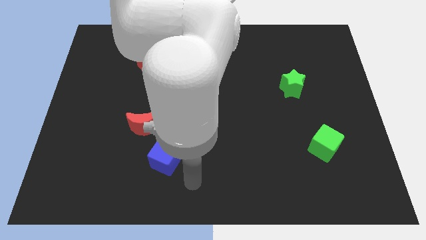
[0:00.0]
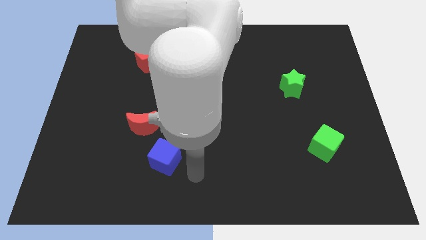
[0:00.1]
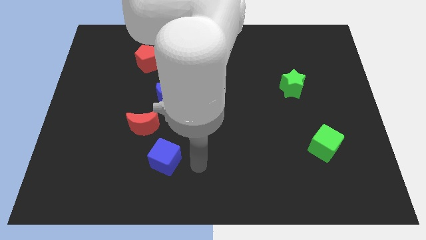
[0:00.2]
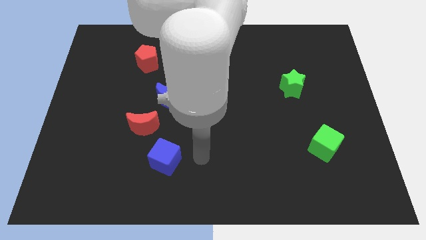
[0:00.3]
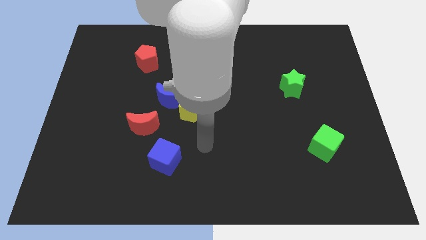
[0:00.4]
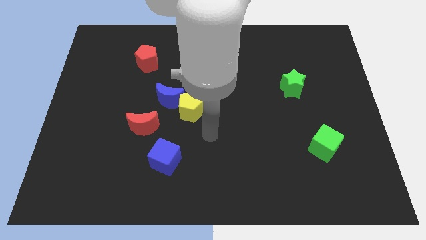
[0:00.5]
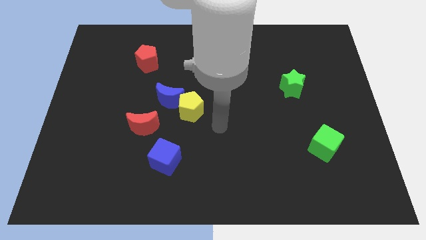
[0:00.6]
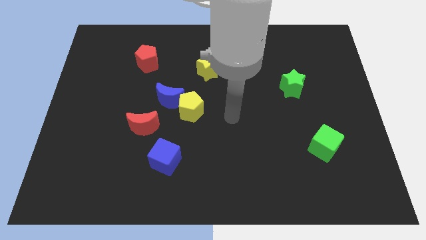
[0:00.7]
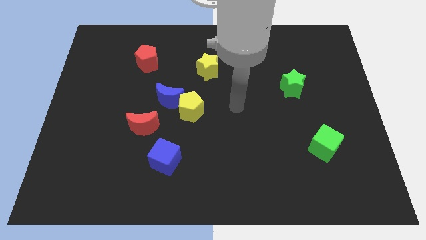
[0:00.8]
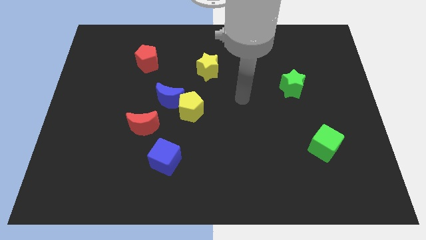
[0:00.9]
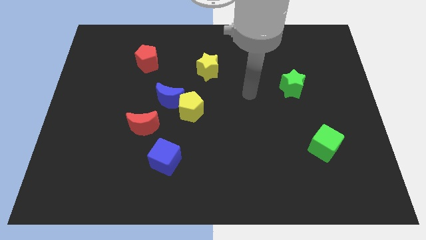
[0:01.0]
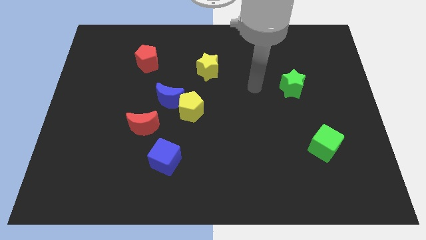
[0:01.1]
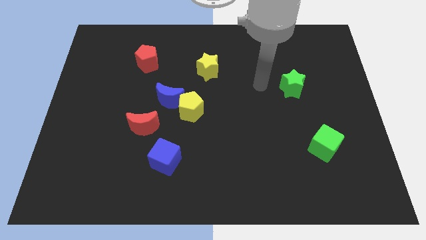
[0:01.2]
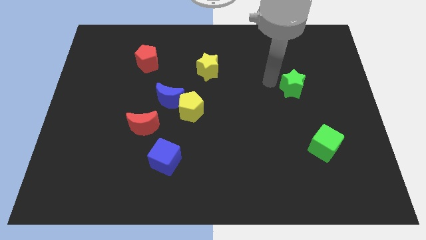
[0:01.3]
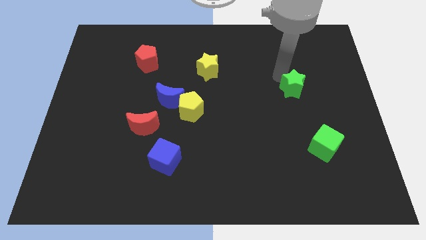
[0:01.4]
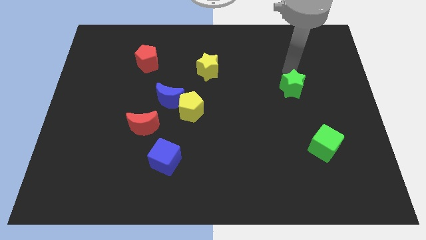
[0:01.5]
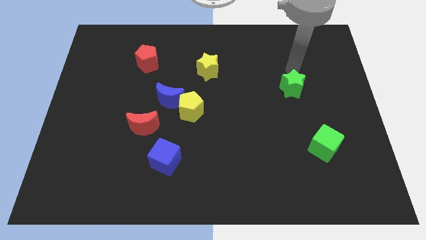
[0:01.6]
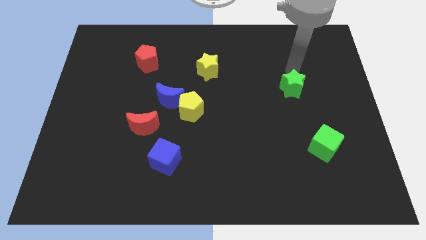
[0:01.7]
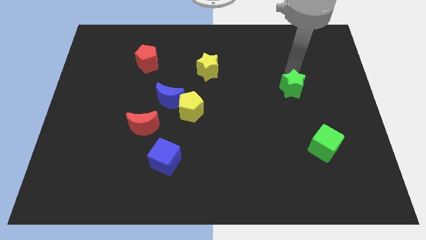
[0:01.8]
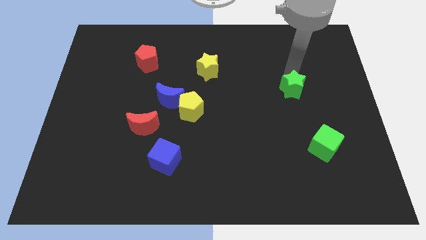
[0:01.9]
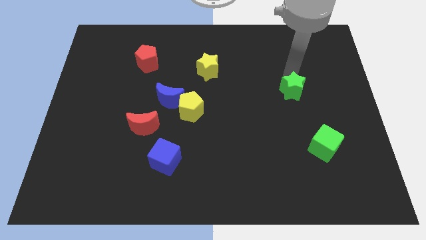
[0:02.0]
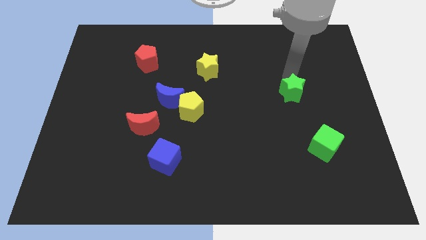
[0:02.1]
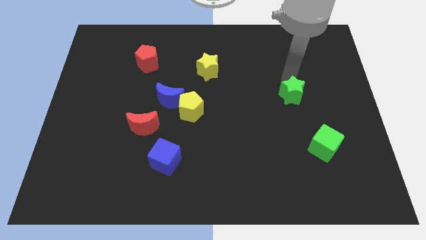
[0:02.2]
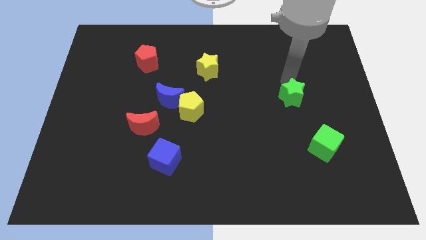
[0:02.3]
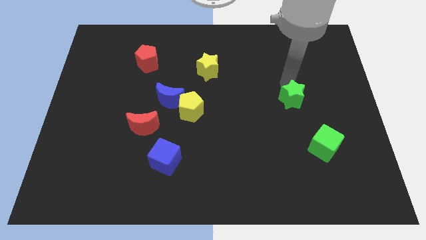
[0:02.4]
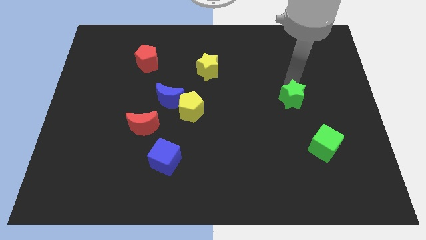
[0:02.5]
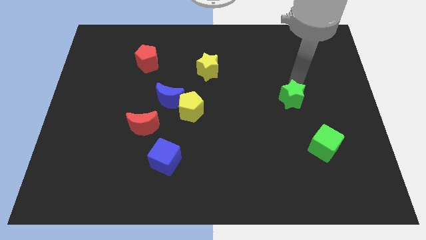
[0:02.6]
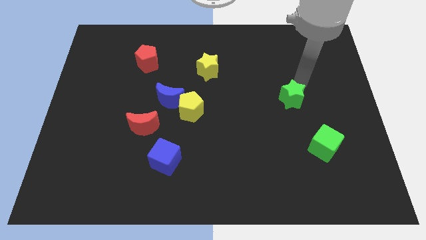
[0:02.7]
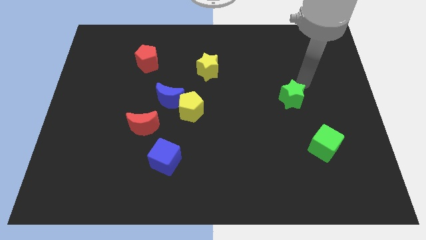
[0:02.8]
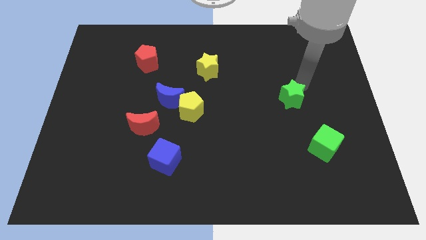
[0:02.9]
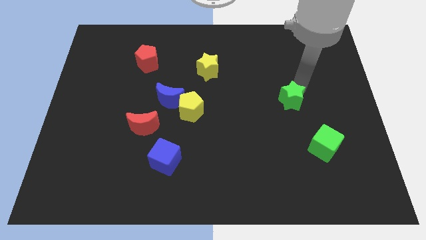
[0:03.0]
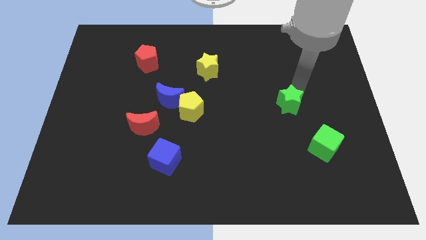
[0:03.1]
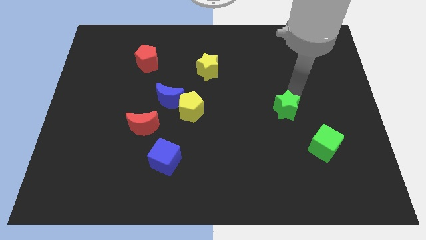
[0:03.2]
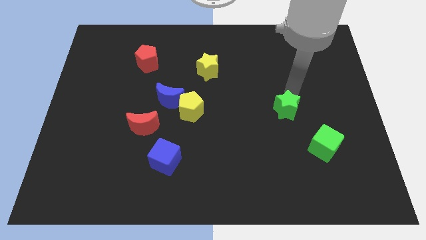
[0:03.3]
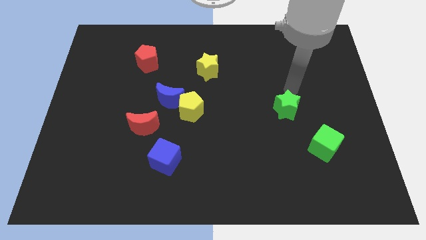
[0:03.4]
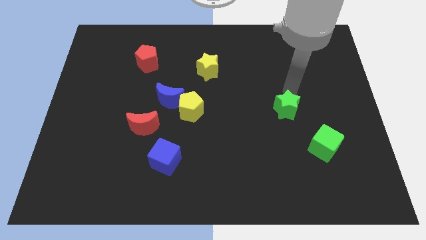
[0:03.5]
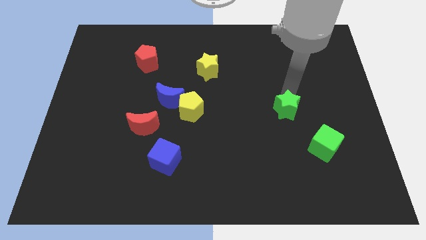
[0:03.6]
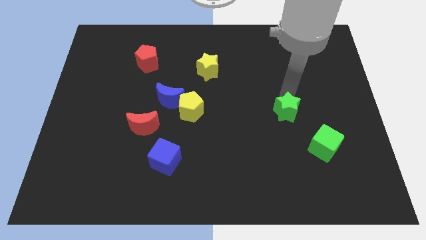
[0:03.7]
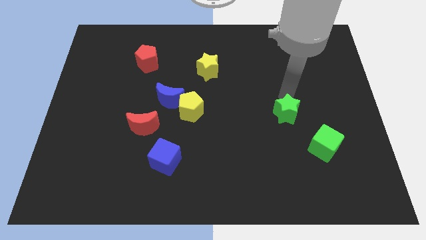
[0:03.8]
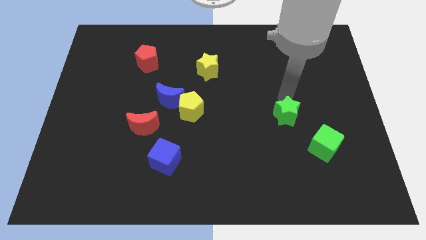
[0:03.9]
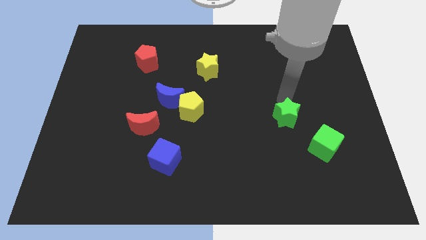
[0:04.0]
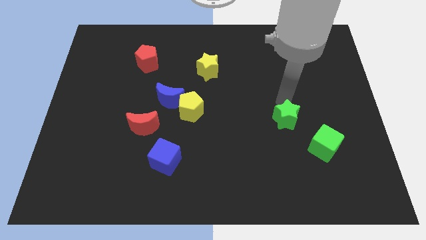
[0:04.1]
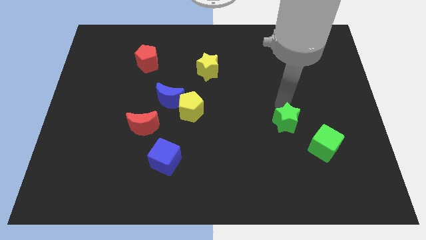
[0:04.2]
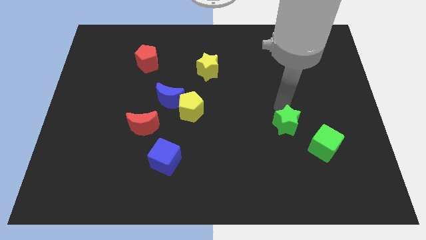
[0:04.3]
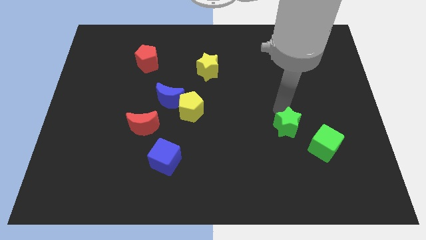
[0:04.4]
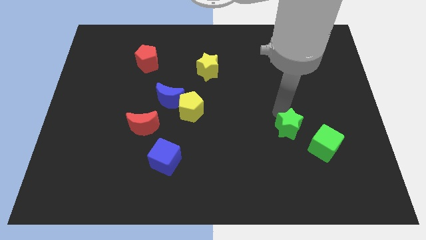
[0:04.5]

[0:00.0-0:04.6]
put the green star to the left side of the green cube

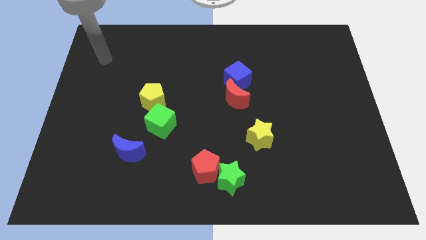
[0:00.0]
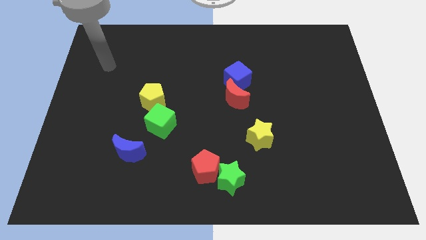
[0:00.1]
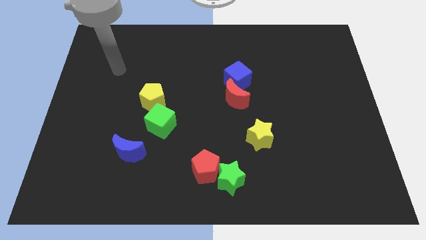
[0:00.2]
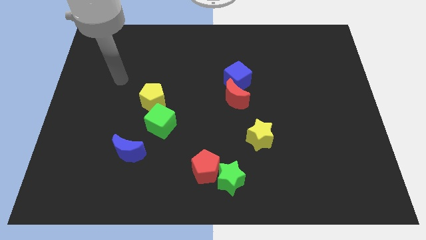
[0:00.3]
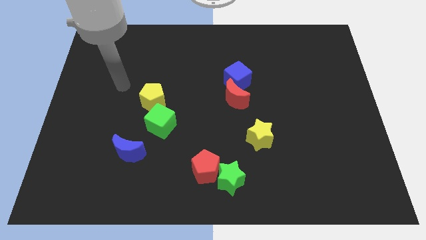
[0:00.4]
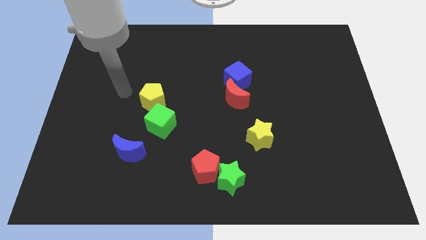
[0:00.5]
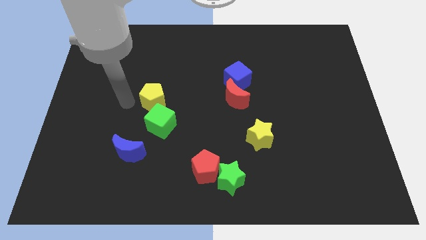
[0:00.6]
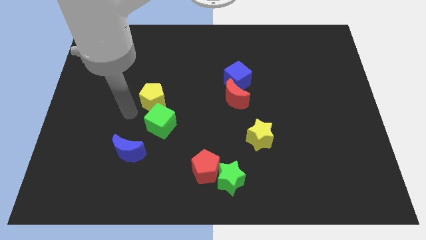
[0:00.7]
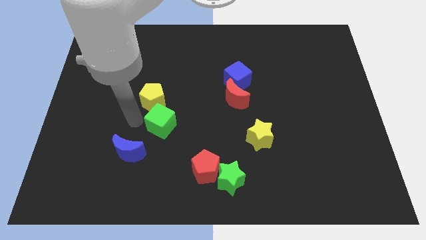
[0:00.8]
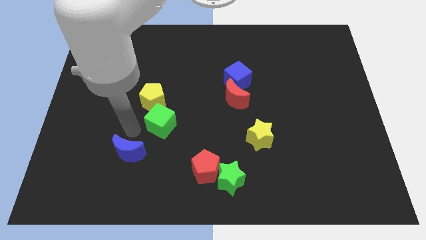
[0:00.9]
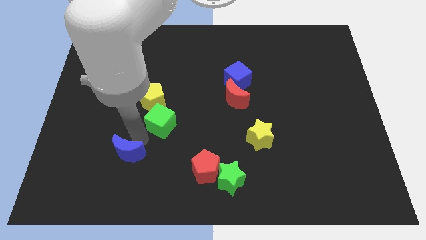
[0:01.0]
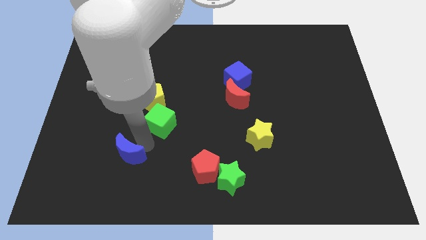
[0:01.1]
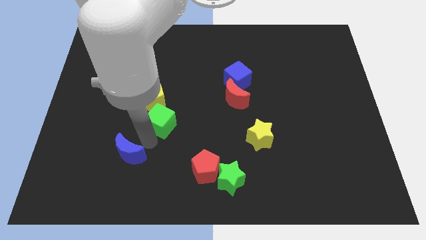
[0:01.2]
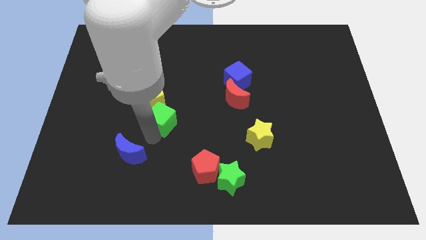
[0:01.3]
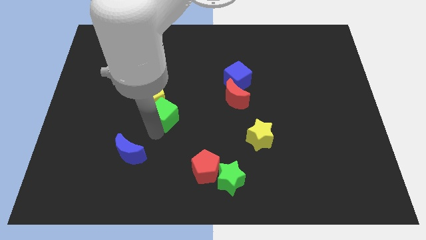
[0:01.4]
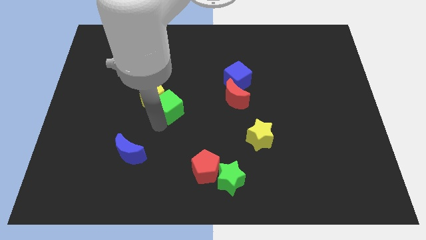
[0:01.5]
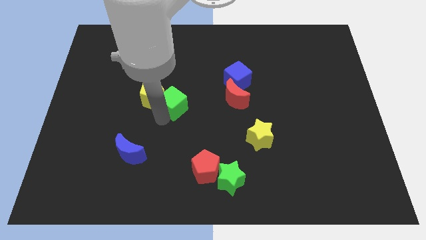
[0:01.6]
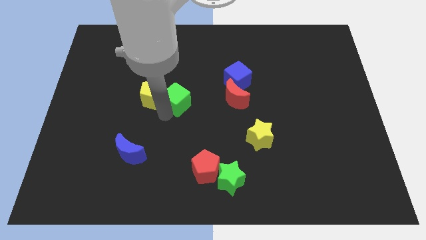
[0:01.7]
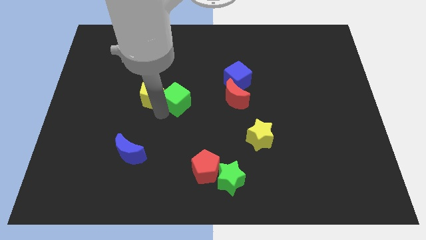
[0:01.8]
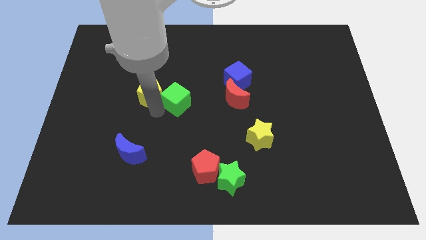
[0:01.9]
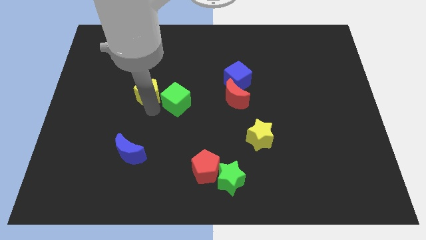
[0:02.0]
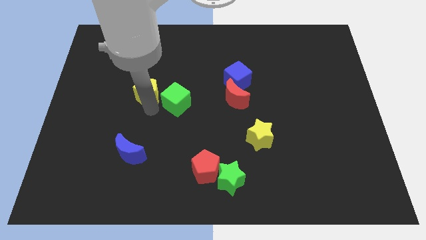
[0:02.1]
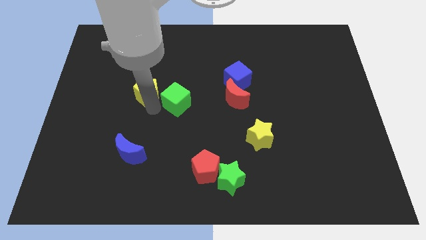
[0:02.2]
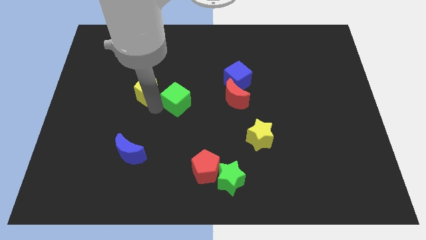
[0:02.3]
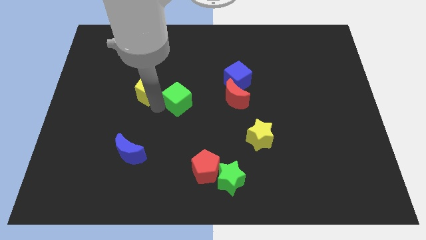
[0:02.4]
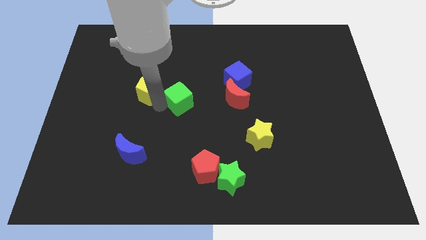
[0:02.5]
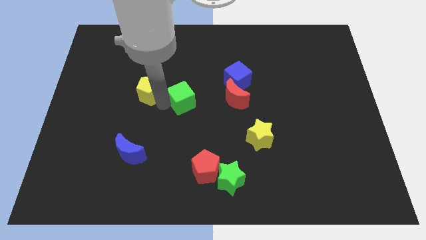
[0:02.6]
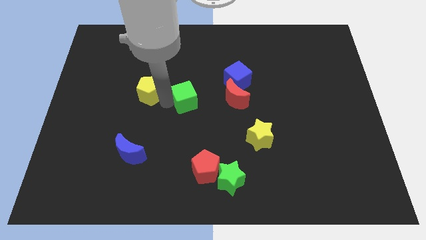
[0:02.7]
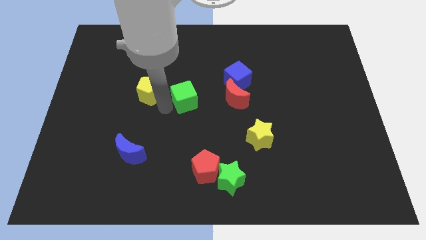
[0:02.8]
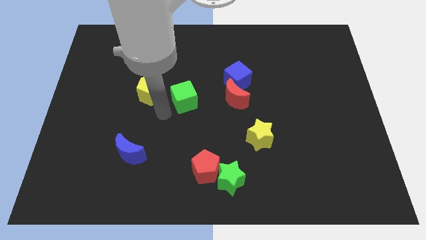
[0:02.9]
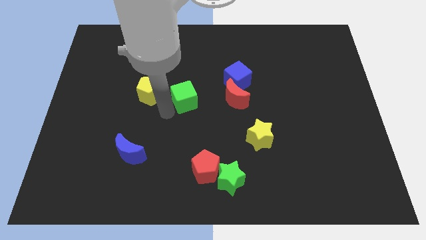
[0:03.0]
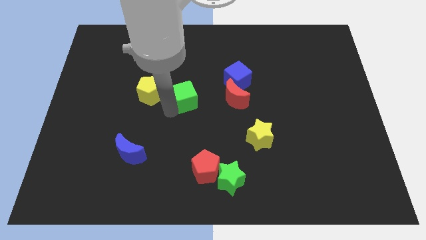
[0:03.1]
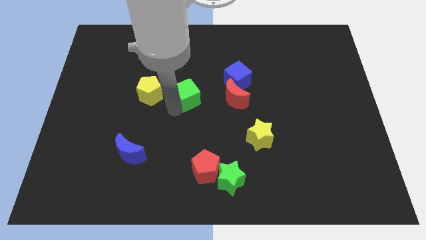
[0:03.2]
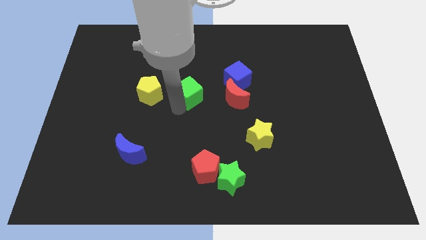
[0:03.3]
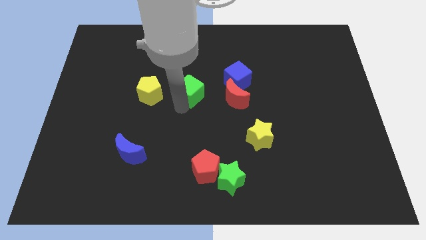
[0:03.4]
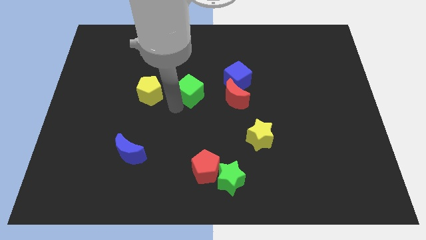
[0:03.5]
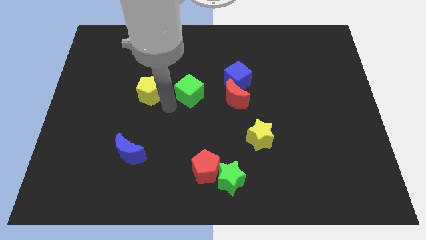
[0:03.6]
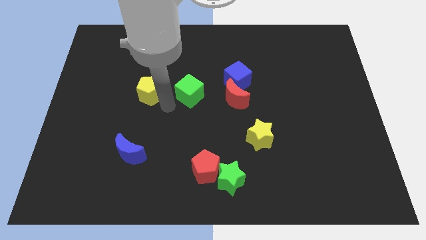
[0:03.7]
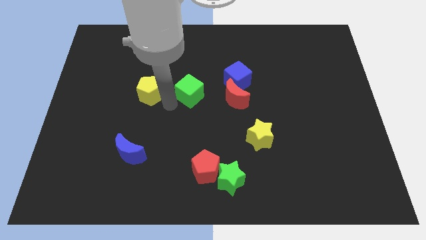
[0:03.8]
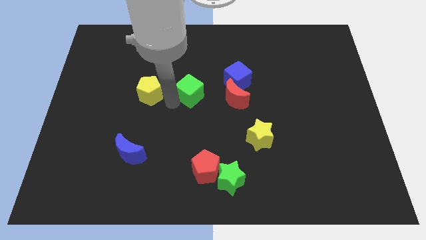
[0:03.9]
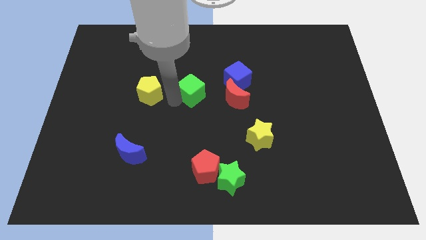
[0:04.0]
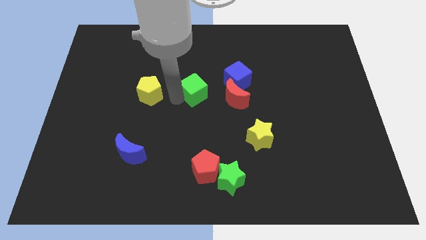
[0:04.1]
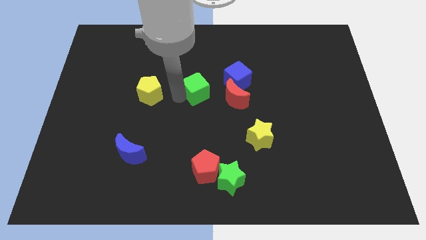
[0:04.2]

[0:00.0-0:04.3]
push the green cube to the top left side of the red moon
